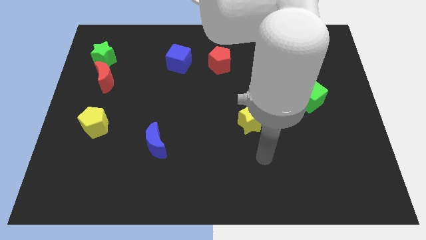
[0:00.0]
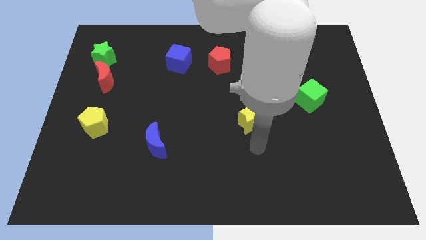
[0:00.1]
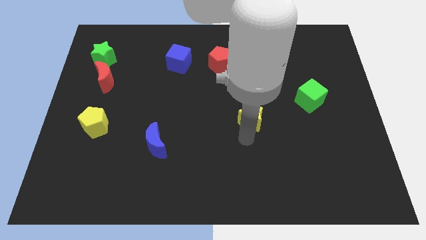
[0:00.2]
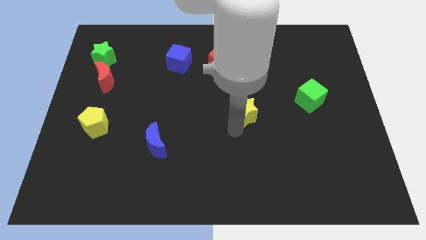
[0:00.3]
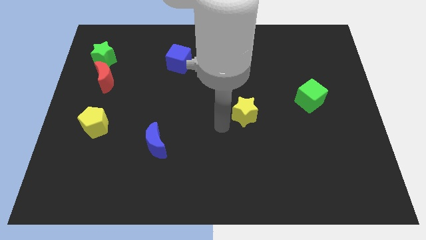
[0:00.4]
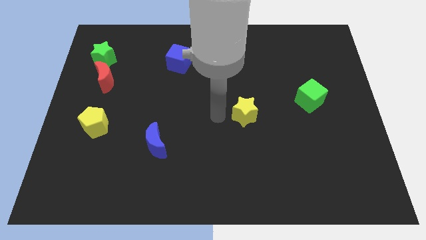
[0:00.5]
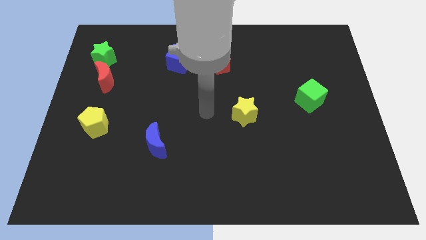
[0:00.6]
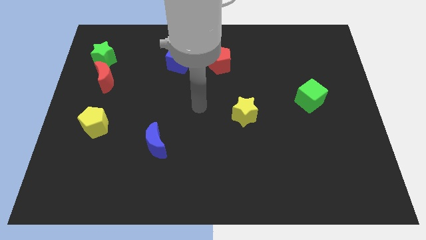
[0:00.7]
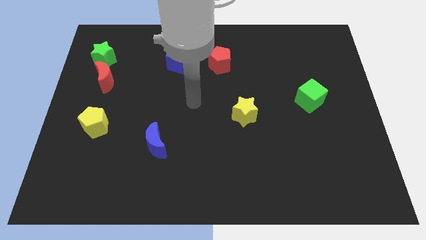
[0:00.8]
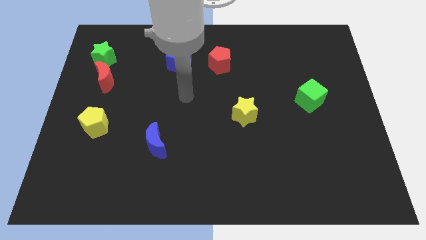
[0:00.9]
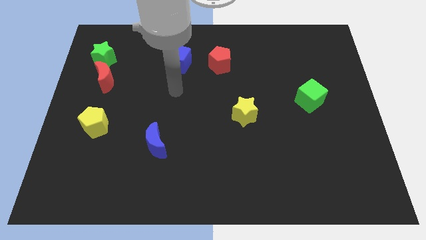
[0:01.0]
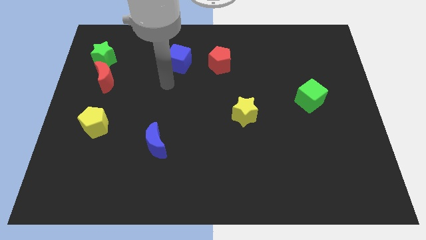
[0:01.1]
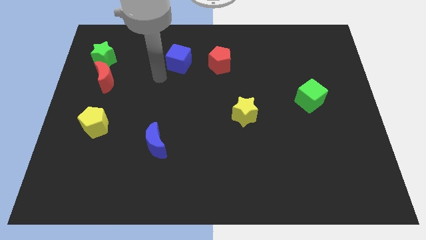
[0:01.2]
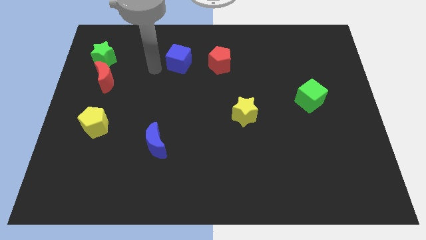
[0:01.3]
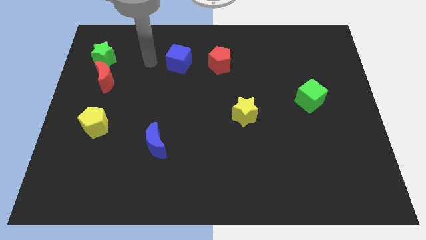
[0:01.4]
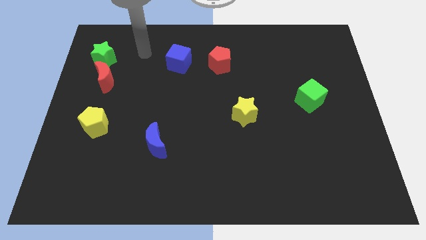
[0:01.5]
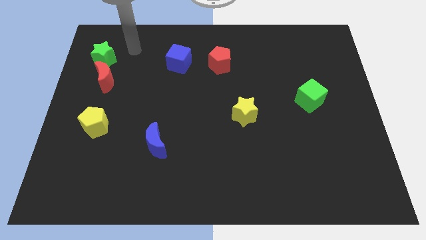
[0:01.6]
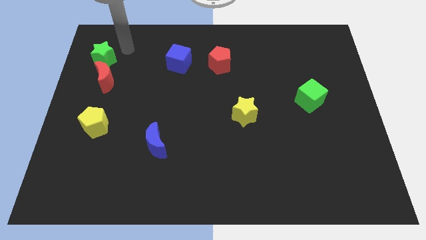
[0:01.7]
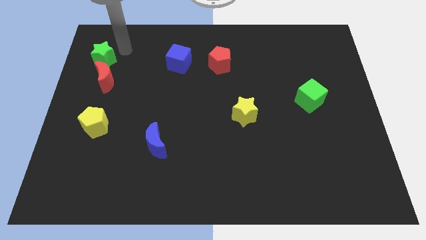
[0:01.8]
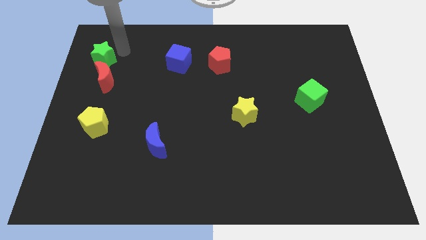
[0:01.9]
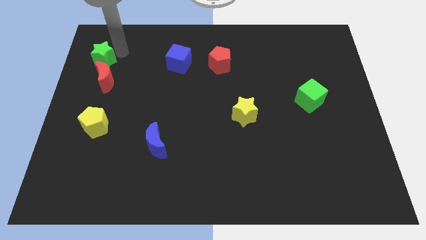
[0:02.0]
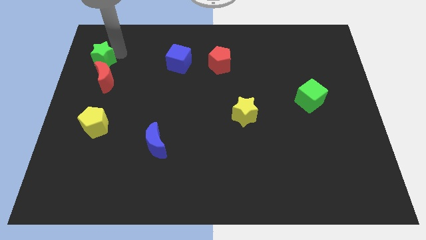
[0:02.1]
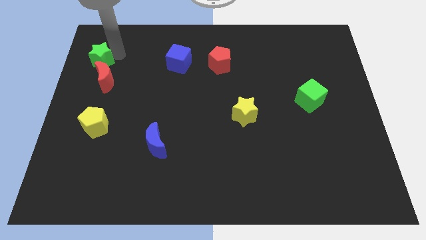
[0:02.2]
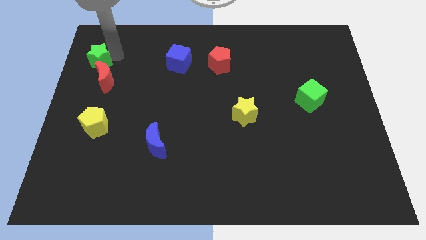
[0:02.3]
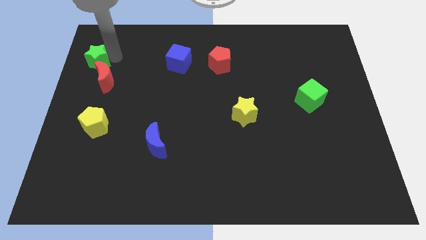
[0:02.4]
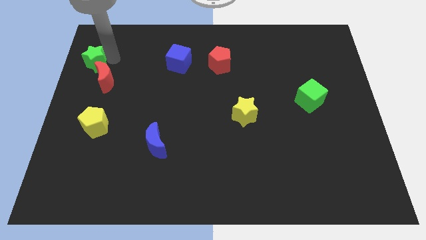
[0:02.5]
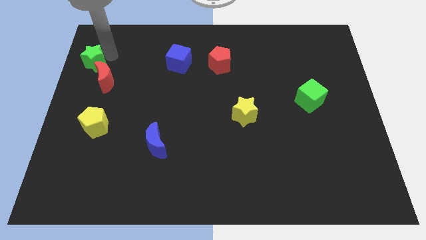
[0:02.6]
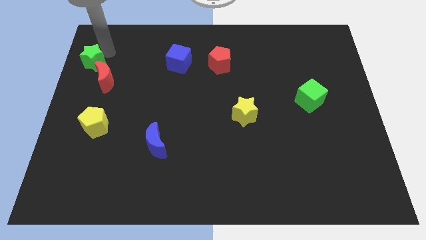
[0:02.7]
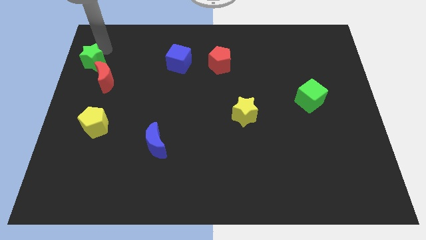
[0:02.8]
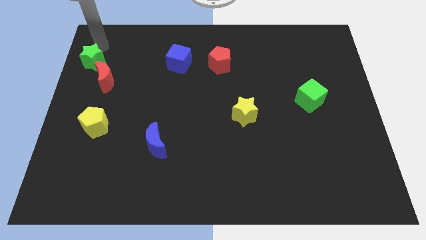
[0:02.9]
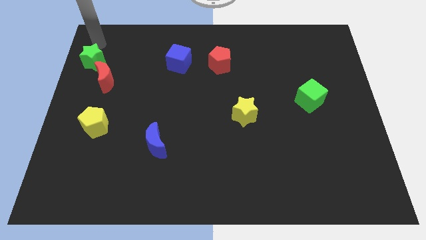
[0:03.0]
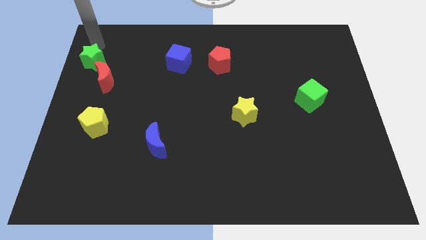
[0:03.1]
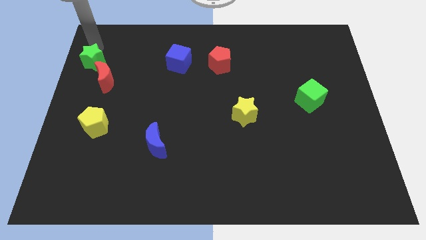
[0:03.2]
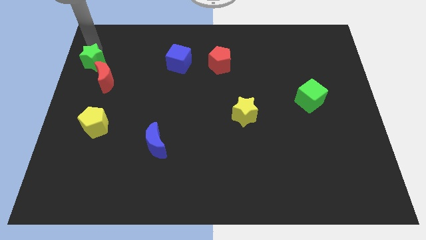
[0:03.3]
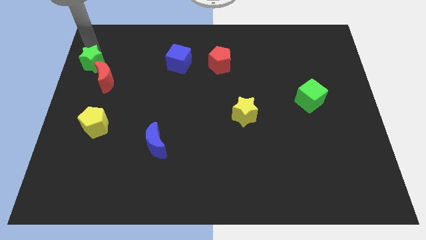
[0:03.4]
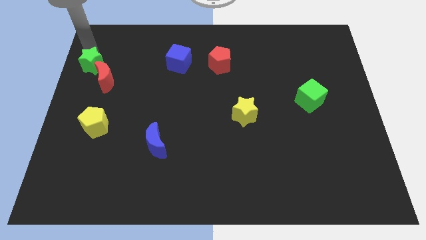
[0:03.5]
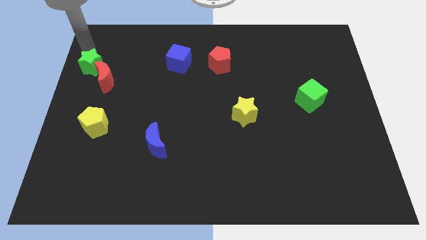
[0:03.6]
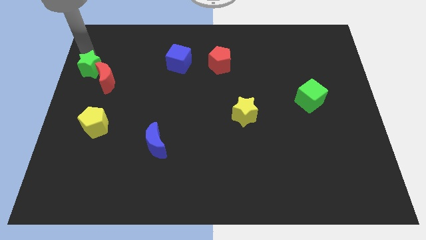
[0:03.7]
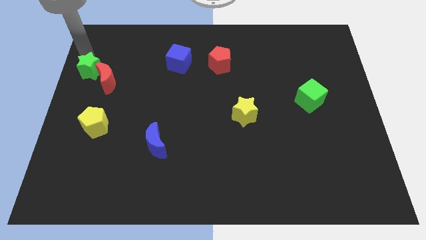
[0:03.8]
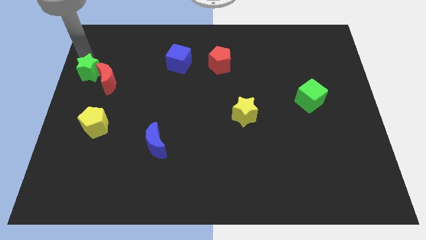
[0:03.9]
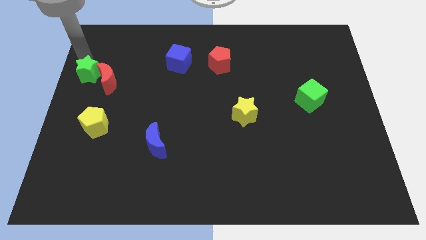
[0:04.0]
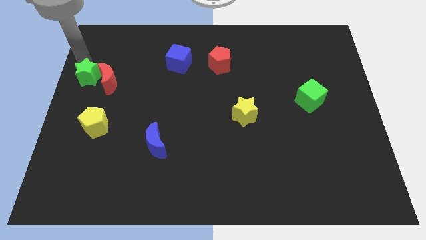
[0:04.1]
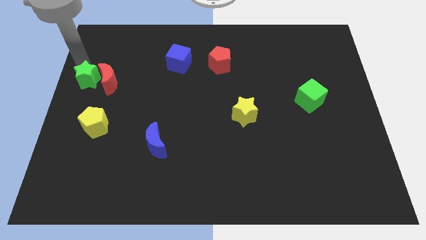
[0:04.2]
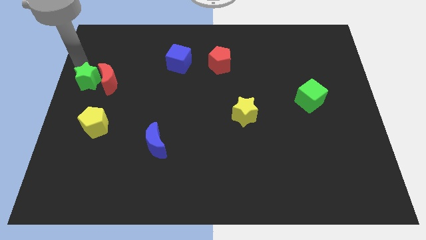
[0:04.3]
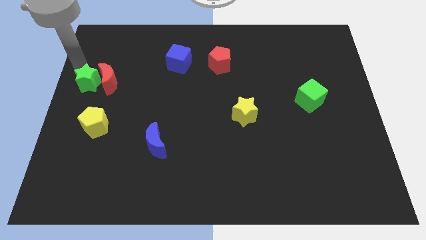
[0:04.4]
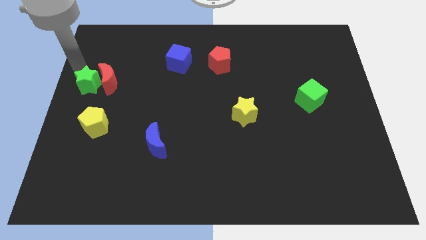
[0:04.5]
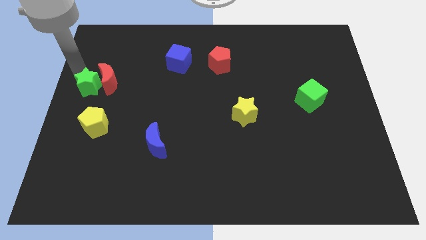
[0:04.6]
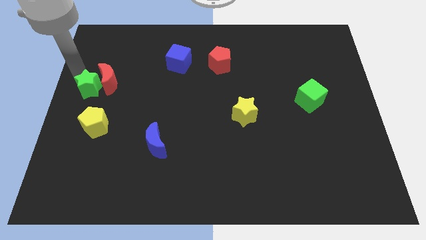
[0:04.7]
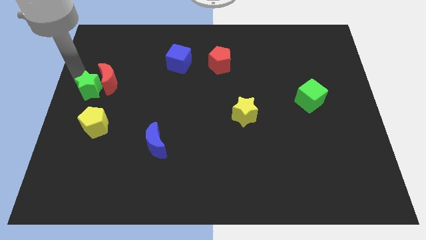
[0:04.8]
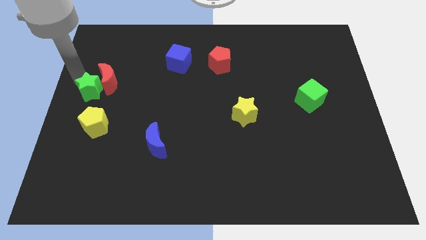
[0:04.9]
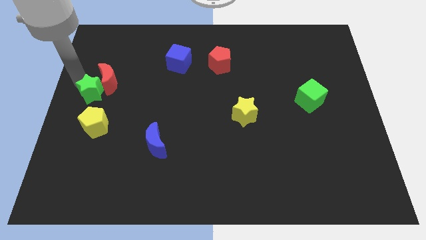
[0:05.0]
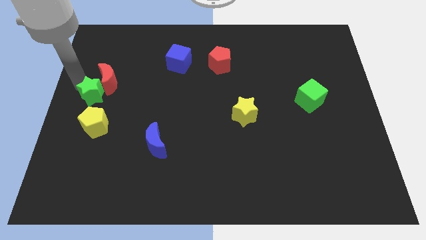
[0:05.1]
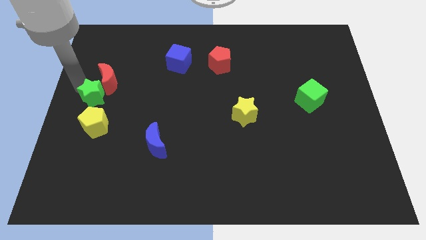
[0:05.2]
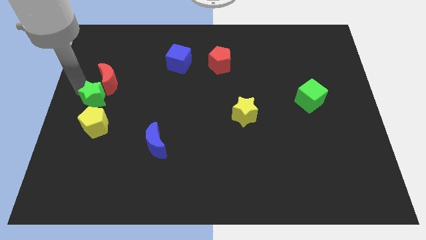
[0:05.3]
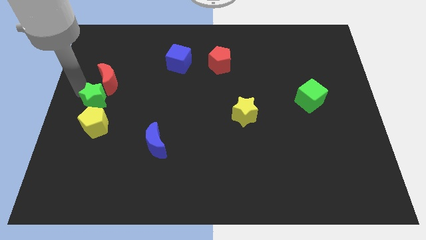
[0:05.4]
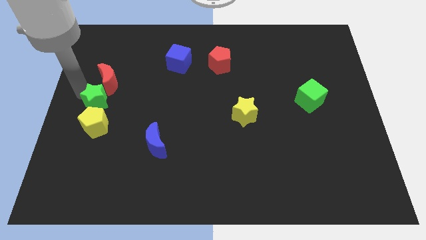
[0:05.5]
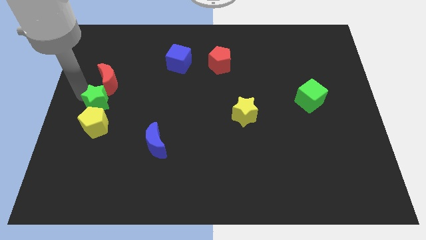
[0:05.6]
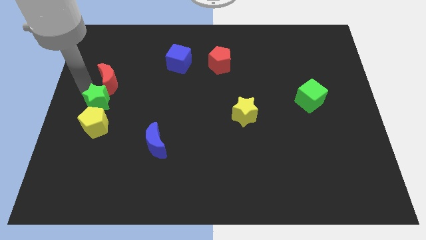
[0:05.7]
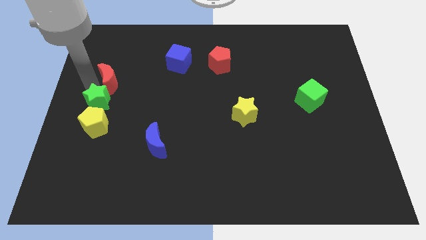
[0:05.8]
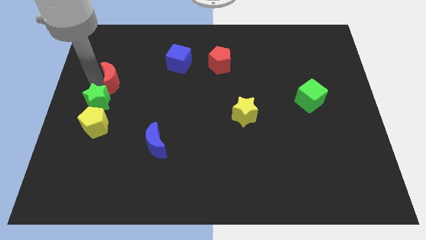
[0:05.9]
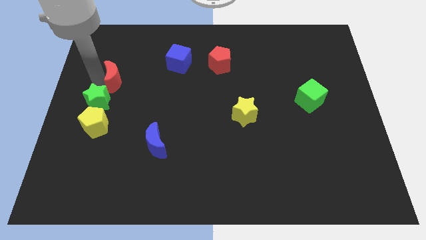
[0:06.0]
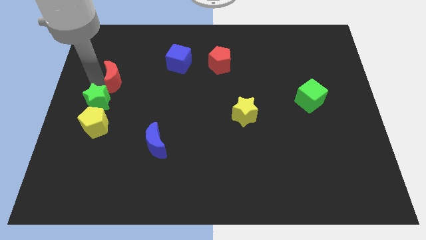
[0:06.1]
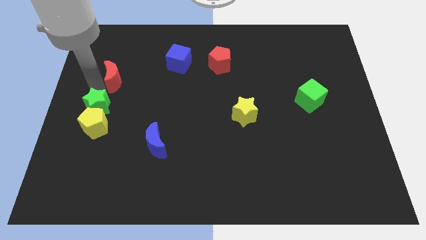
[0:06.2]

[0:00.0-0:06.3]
push the green star to the yellow pentagon
